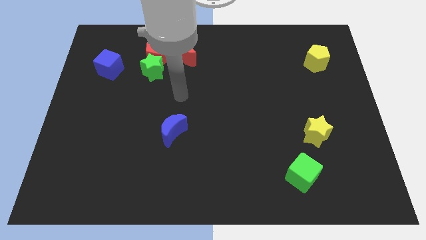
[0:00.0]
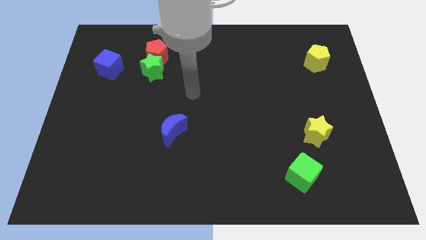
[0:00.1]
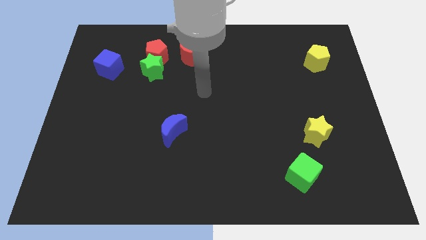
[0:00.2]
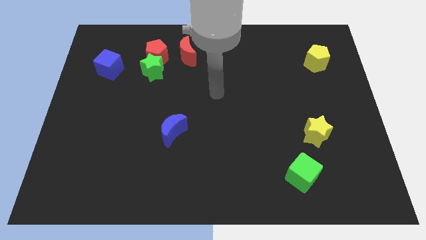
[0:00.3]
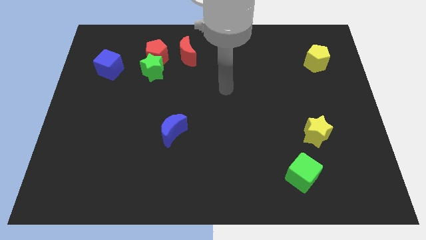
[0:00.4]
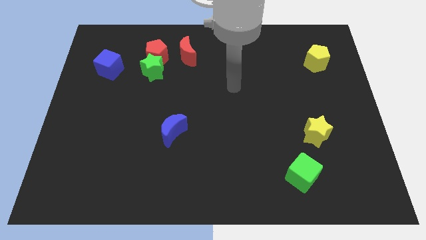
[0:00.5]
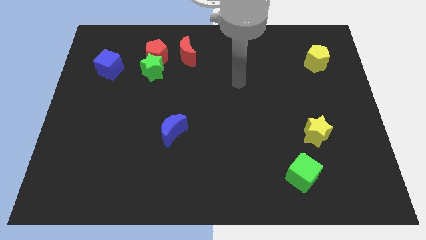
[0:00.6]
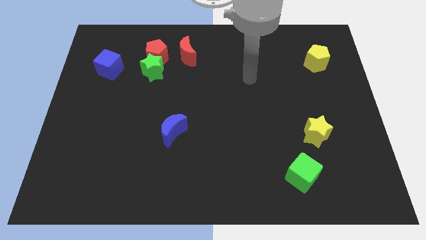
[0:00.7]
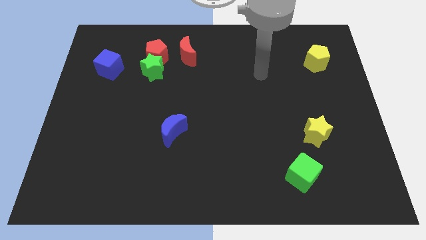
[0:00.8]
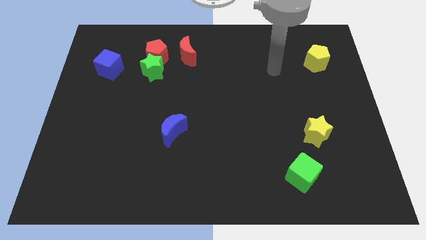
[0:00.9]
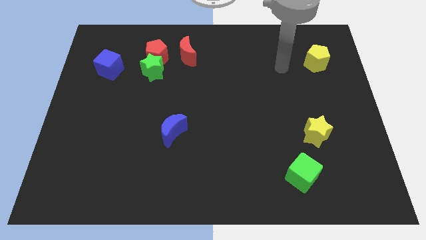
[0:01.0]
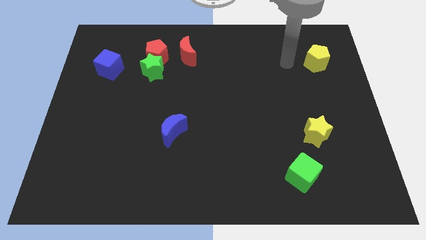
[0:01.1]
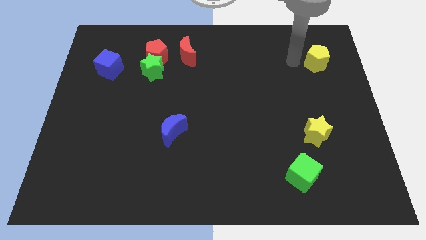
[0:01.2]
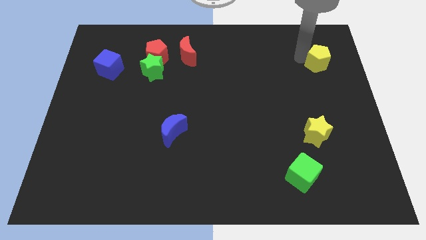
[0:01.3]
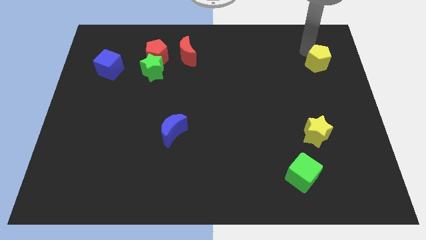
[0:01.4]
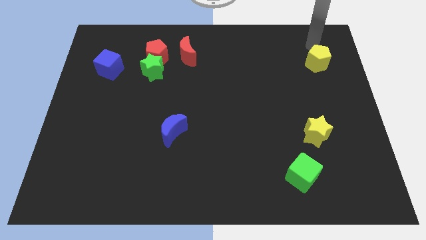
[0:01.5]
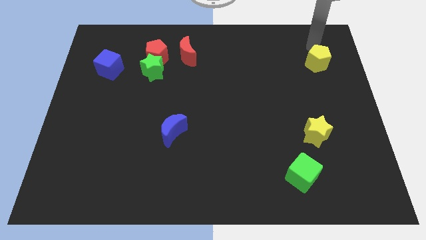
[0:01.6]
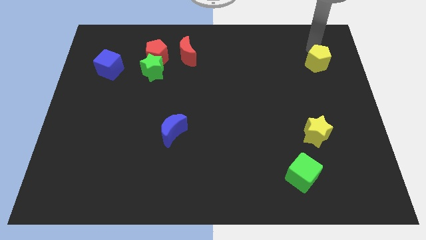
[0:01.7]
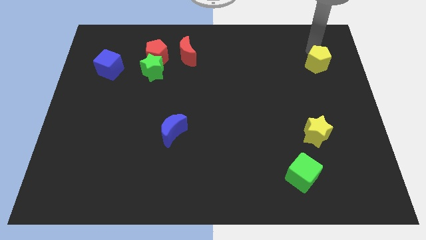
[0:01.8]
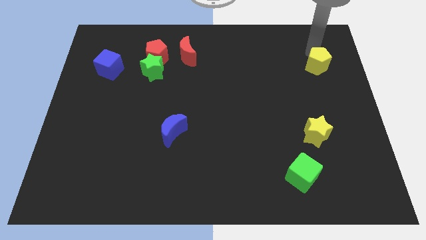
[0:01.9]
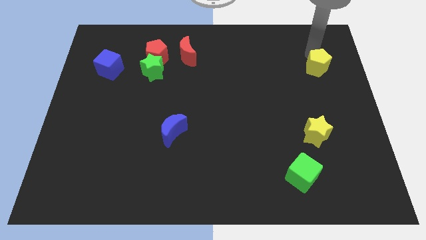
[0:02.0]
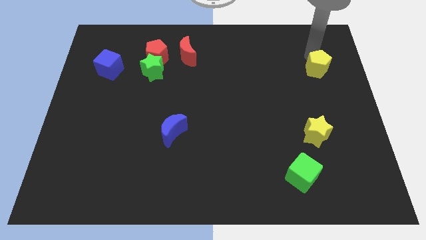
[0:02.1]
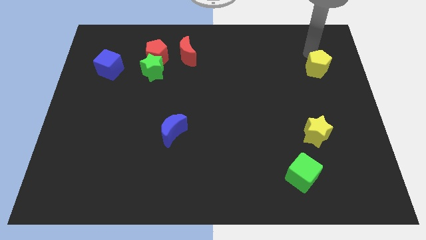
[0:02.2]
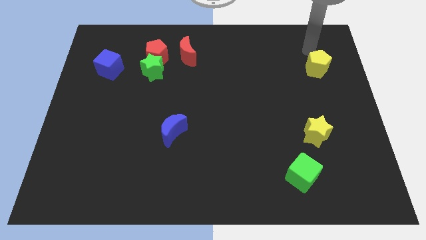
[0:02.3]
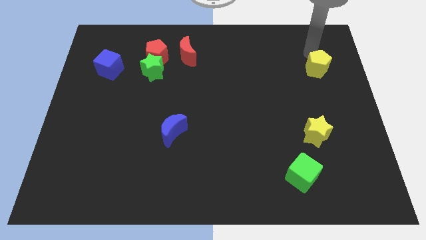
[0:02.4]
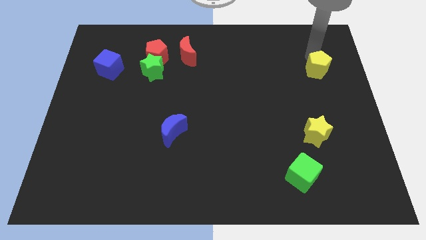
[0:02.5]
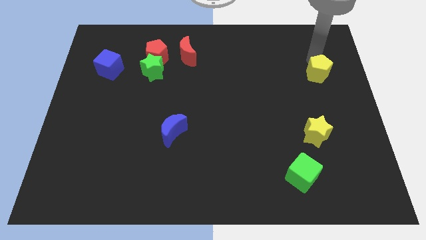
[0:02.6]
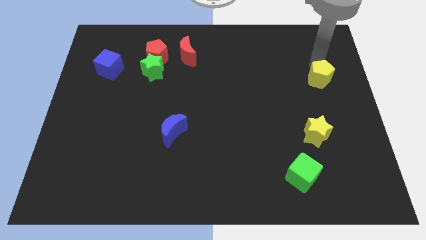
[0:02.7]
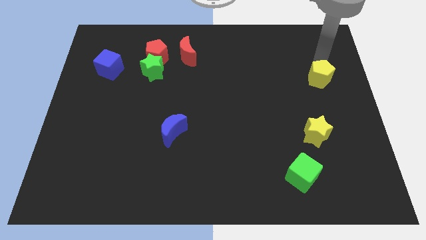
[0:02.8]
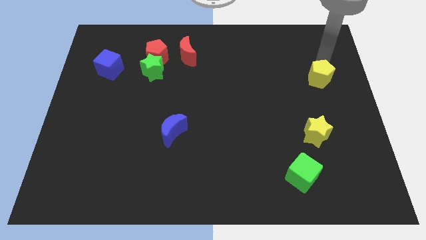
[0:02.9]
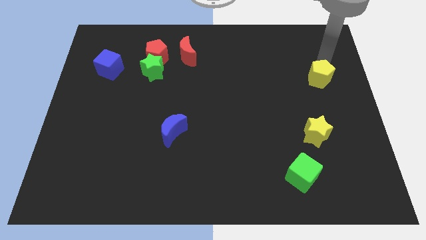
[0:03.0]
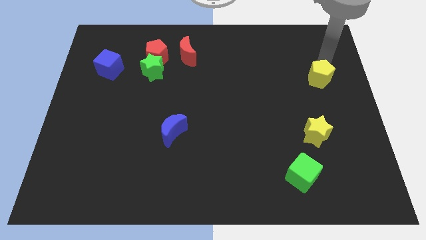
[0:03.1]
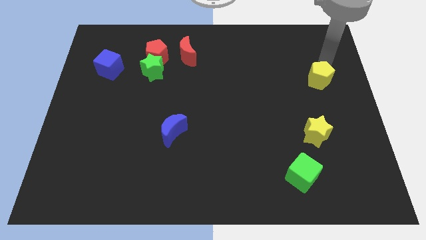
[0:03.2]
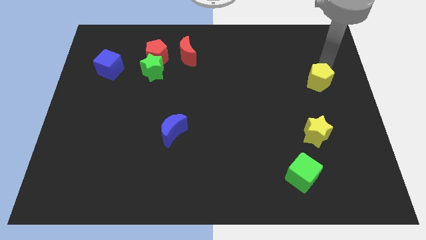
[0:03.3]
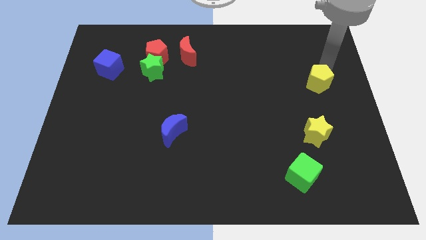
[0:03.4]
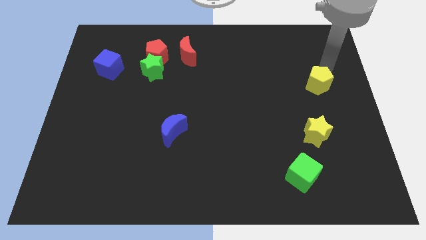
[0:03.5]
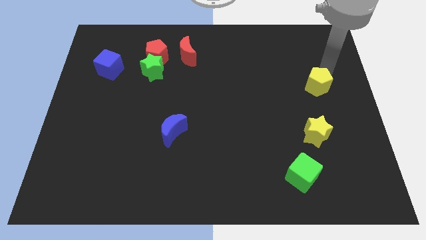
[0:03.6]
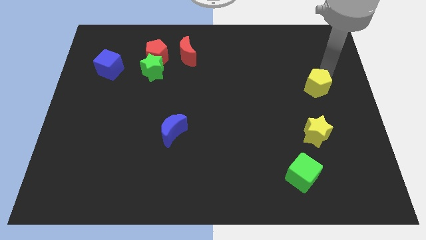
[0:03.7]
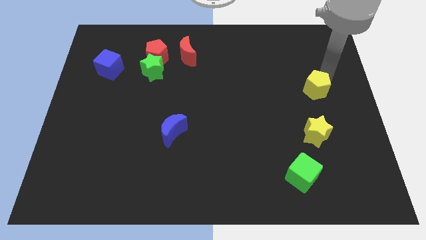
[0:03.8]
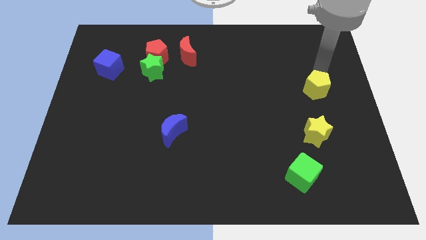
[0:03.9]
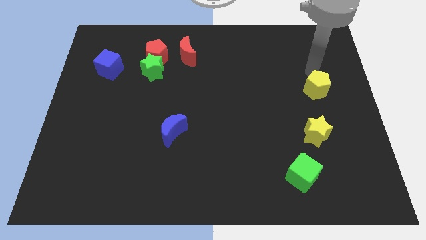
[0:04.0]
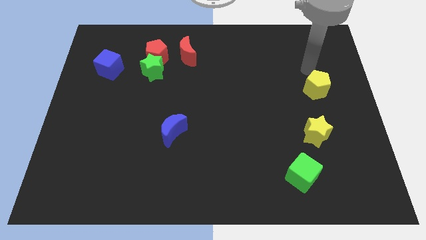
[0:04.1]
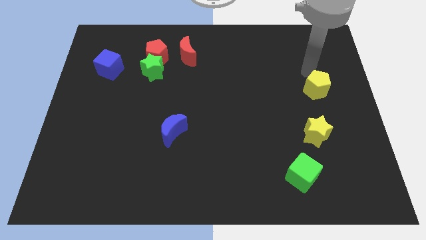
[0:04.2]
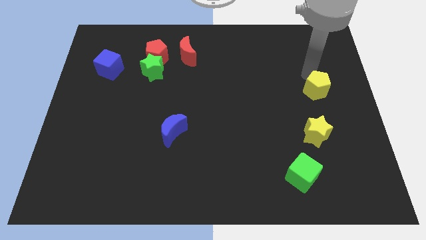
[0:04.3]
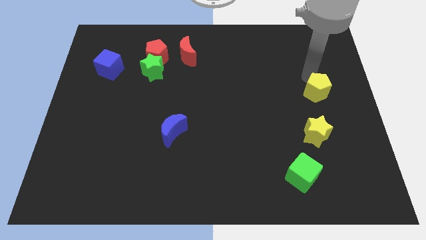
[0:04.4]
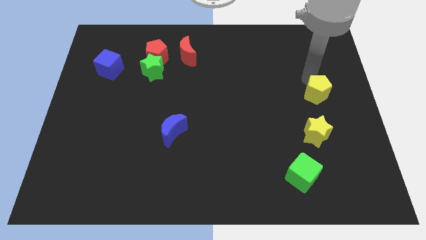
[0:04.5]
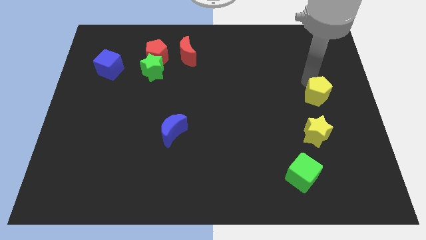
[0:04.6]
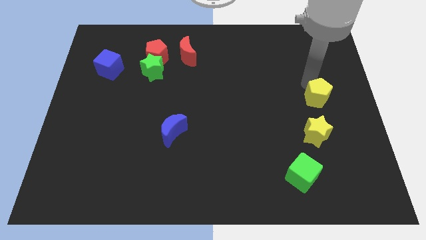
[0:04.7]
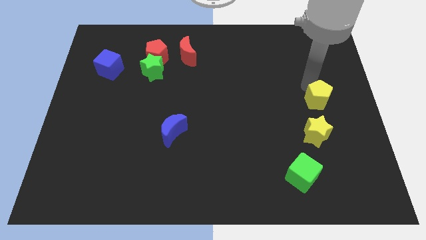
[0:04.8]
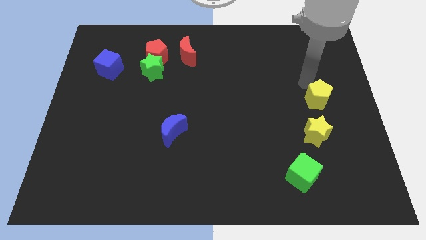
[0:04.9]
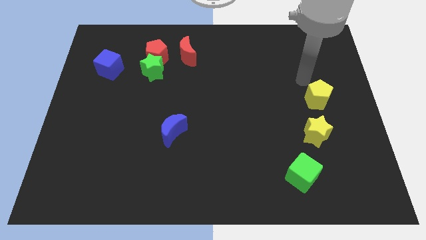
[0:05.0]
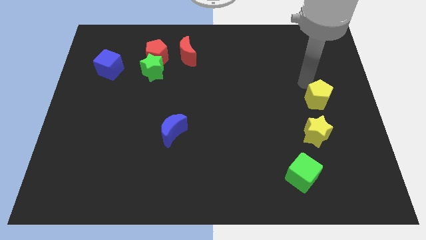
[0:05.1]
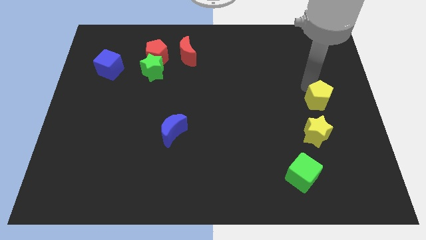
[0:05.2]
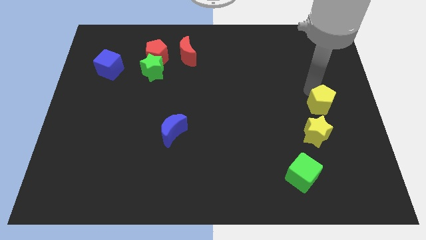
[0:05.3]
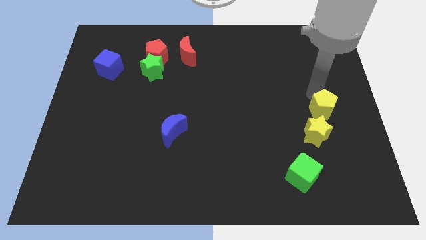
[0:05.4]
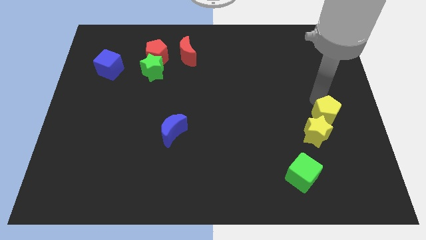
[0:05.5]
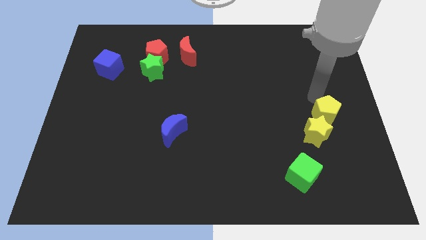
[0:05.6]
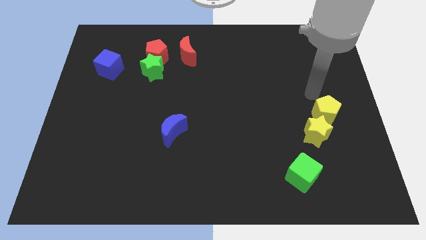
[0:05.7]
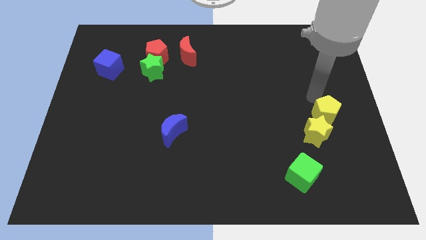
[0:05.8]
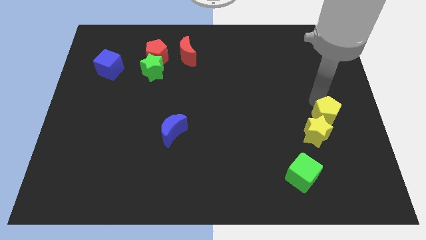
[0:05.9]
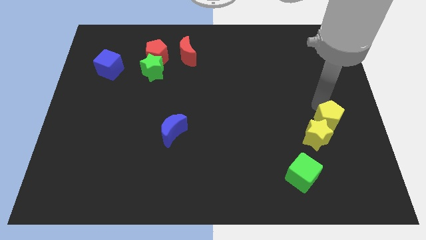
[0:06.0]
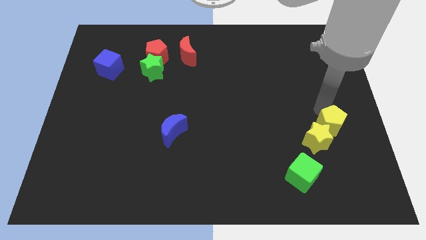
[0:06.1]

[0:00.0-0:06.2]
move the yellow pentagon downwards

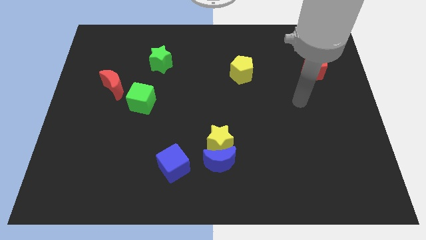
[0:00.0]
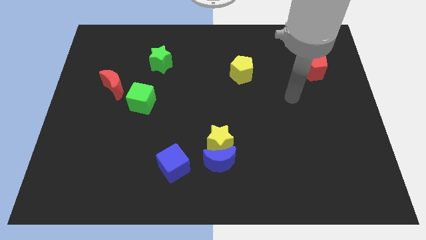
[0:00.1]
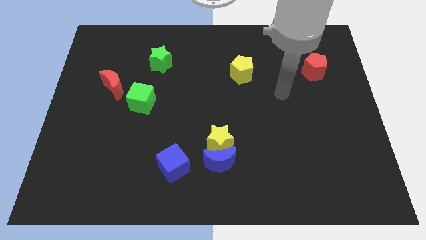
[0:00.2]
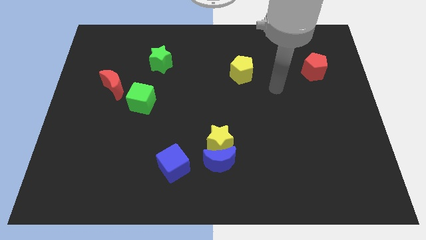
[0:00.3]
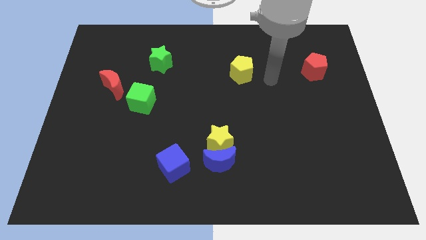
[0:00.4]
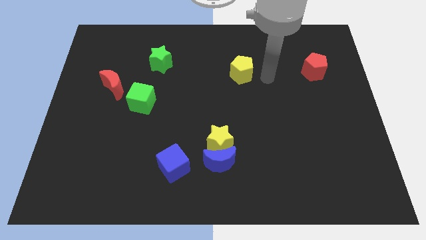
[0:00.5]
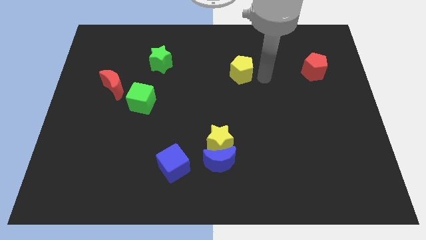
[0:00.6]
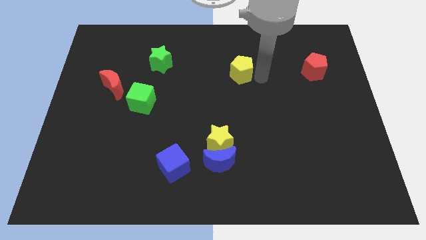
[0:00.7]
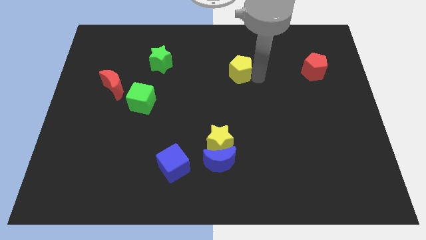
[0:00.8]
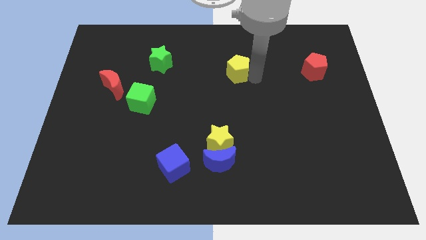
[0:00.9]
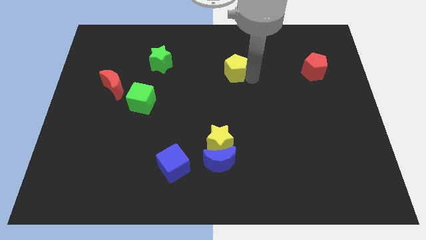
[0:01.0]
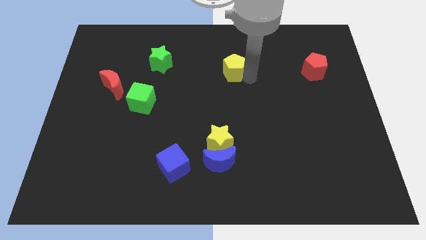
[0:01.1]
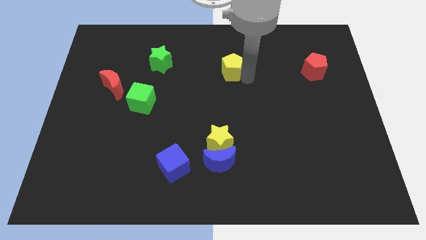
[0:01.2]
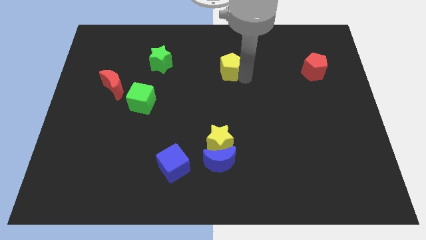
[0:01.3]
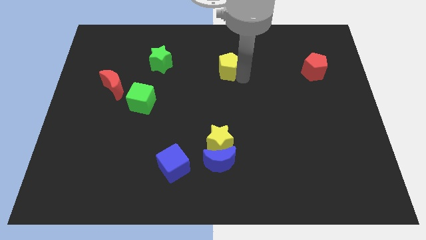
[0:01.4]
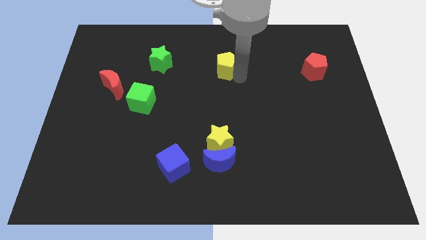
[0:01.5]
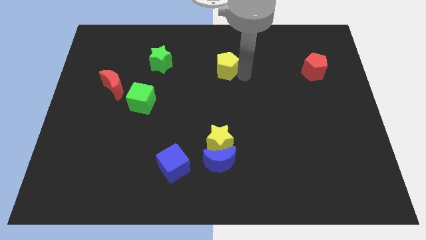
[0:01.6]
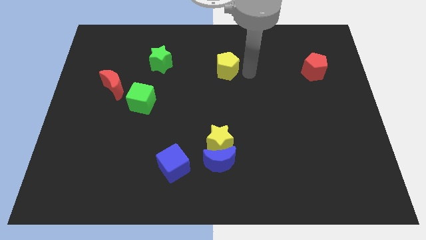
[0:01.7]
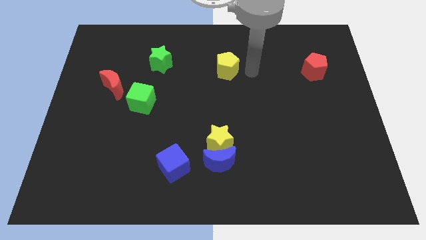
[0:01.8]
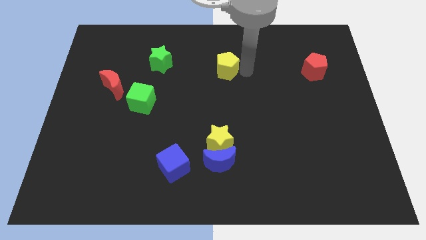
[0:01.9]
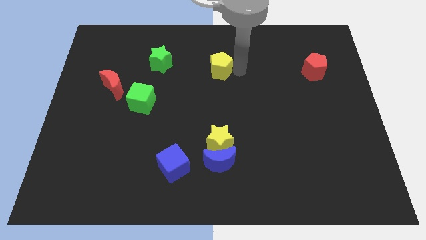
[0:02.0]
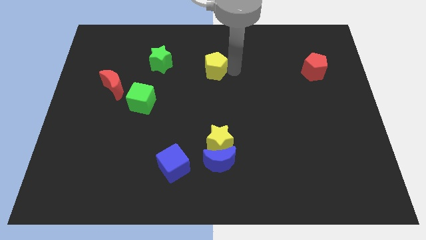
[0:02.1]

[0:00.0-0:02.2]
slightly push the yellow pentagon to the left
